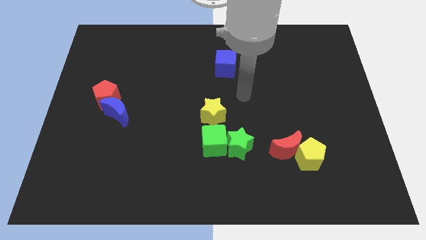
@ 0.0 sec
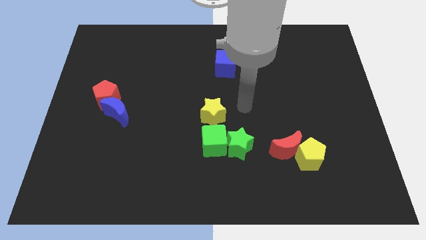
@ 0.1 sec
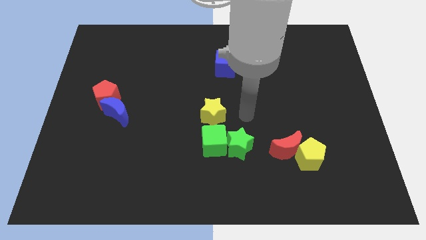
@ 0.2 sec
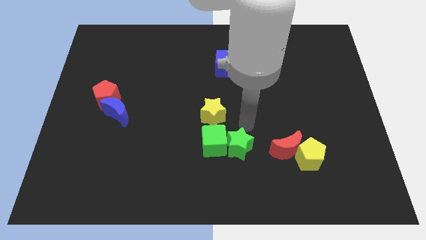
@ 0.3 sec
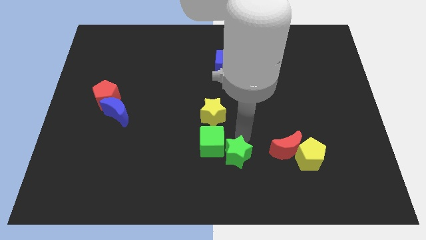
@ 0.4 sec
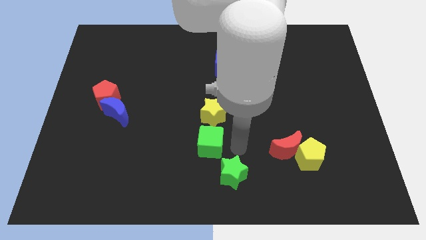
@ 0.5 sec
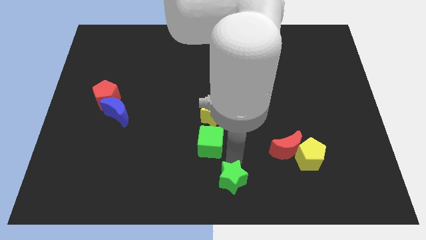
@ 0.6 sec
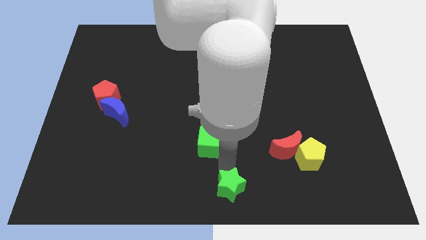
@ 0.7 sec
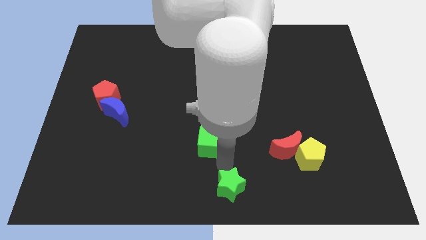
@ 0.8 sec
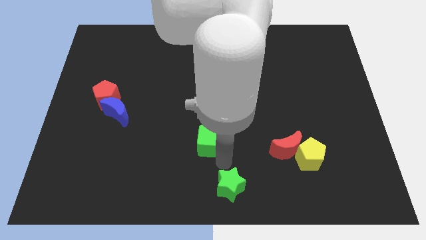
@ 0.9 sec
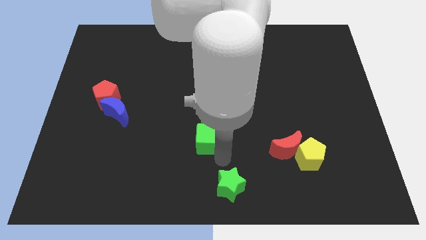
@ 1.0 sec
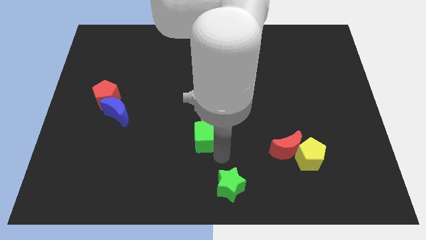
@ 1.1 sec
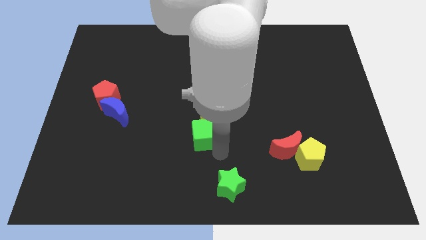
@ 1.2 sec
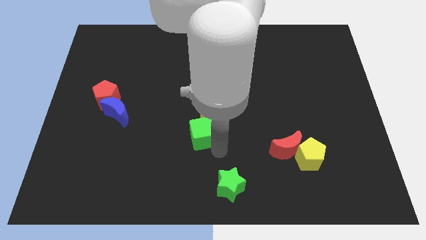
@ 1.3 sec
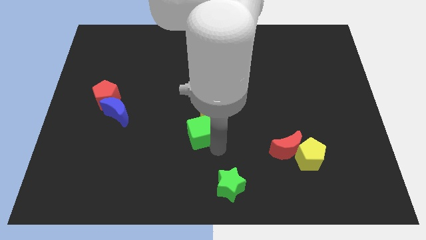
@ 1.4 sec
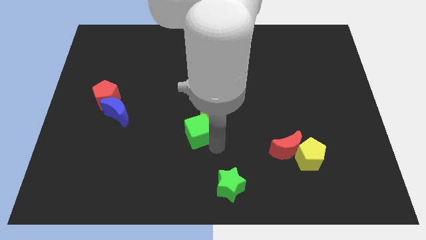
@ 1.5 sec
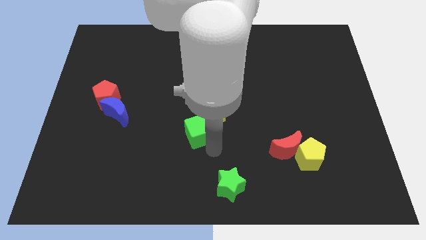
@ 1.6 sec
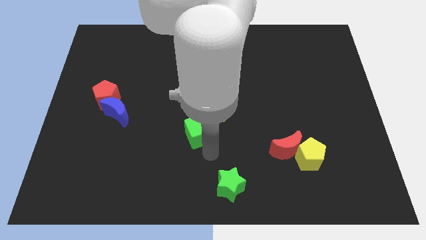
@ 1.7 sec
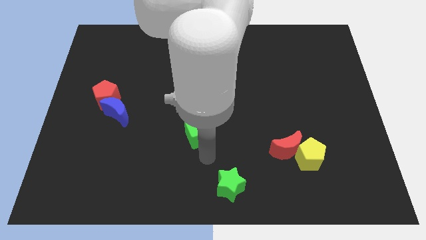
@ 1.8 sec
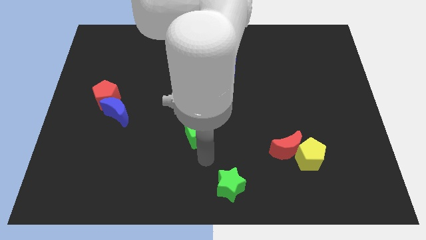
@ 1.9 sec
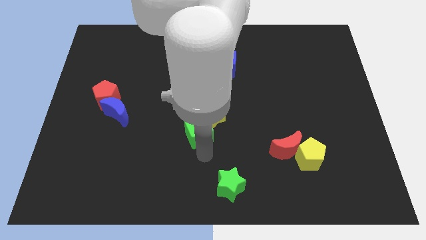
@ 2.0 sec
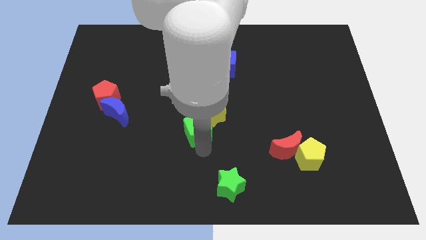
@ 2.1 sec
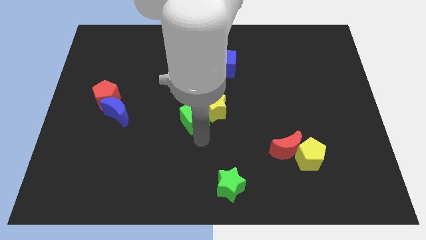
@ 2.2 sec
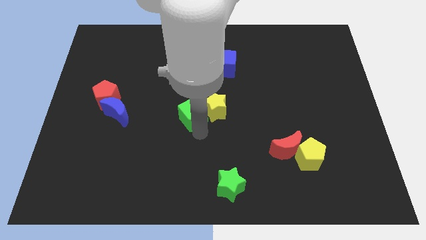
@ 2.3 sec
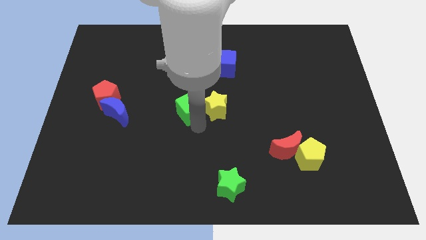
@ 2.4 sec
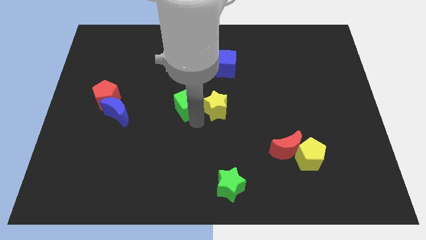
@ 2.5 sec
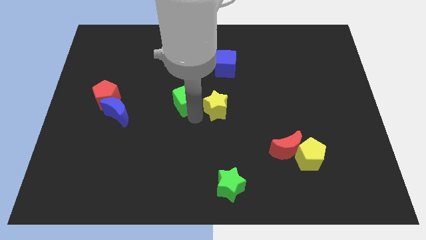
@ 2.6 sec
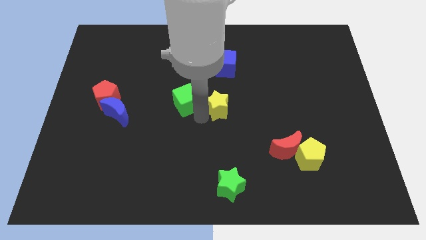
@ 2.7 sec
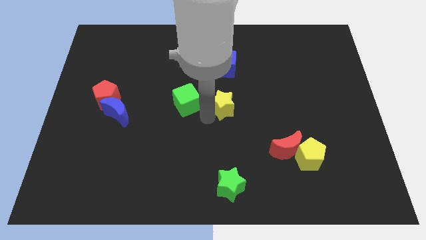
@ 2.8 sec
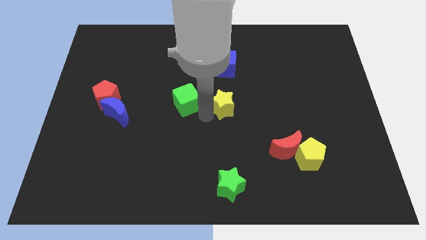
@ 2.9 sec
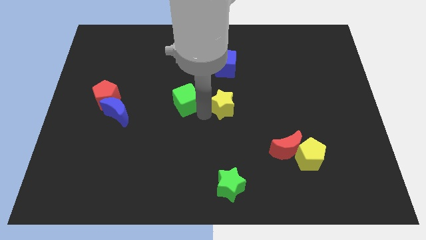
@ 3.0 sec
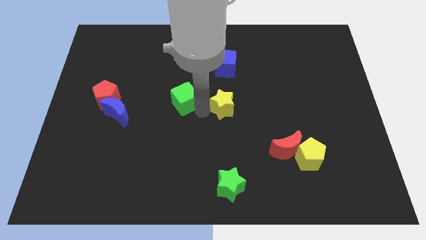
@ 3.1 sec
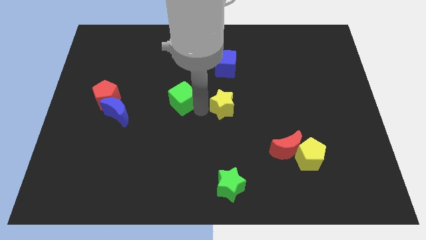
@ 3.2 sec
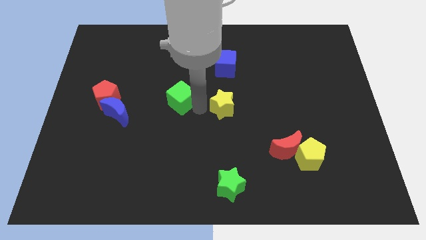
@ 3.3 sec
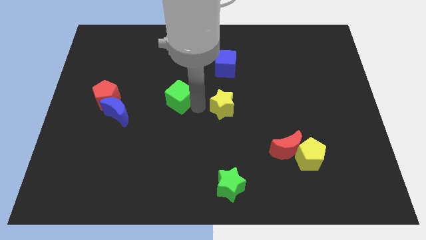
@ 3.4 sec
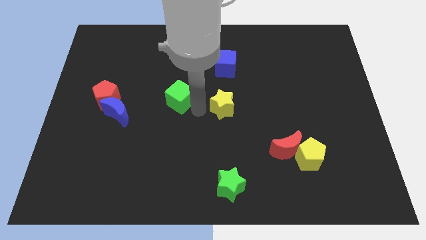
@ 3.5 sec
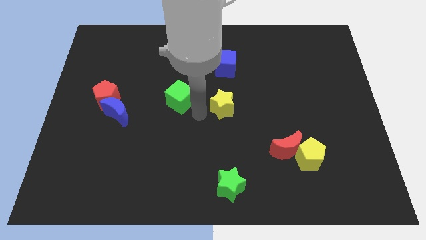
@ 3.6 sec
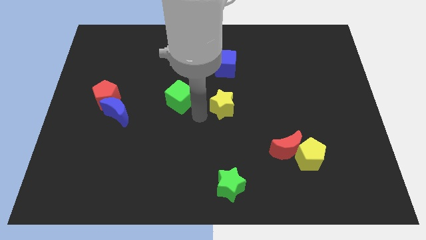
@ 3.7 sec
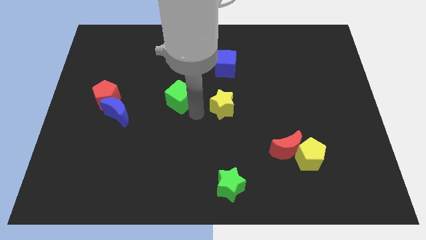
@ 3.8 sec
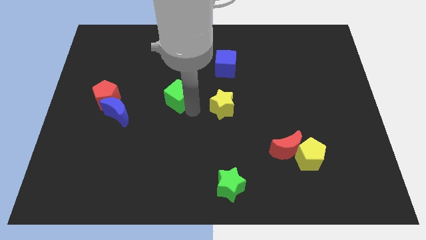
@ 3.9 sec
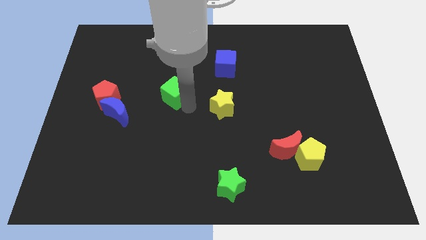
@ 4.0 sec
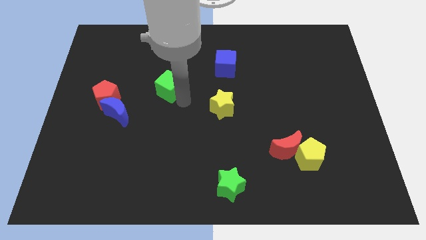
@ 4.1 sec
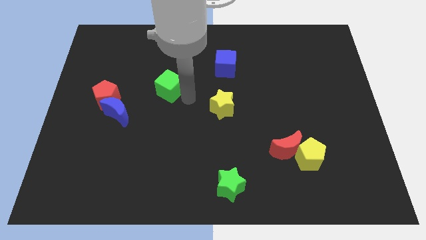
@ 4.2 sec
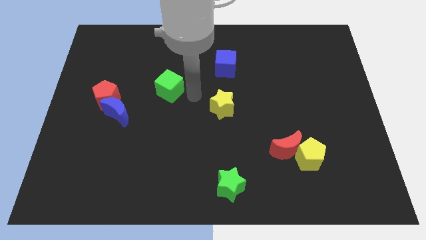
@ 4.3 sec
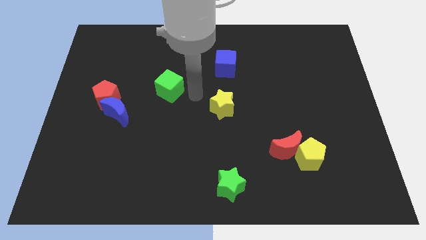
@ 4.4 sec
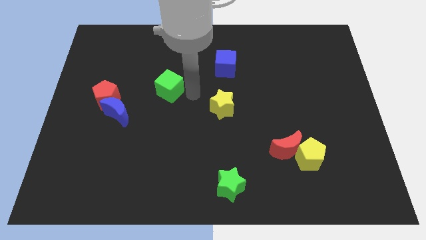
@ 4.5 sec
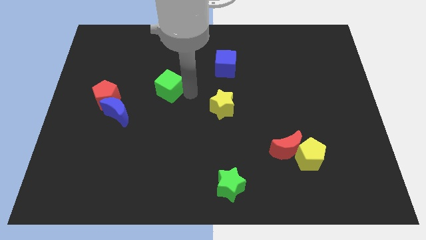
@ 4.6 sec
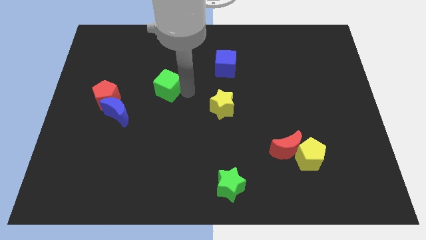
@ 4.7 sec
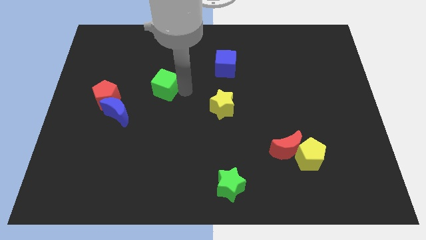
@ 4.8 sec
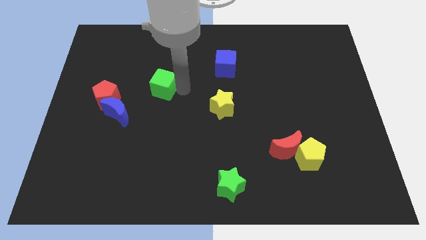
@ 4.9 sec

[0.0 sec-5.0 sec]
move the green cube up and left diagonally

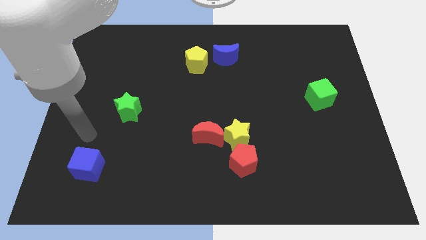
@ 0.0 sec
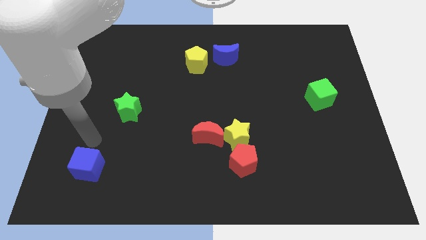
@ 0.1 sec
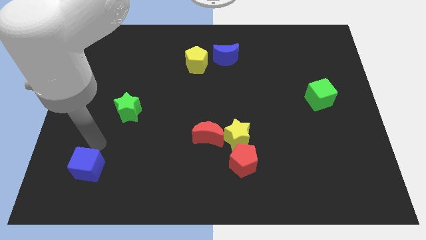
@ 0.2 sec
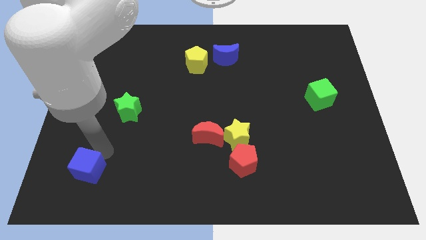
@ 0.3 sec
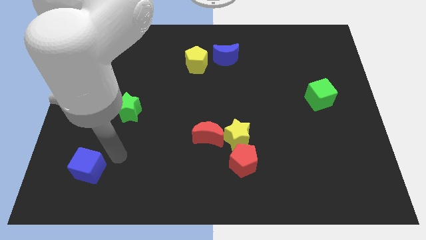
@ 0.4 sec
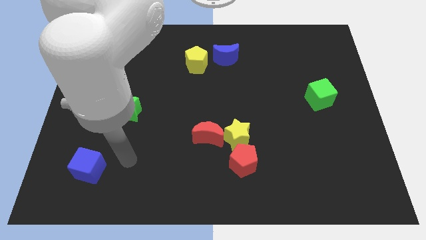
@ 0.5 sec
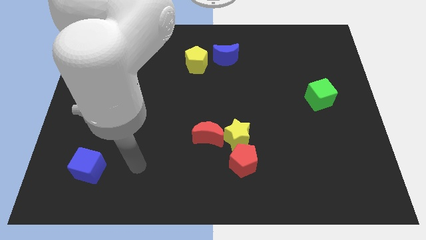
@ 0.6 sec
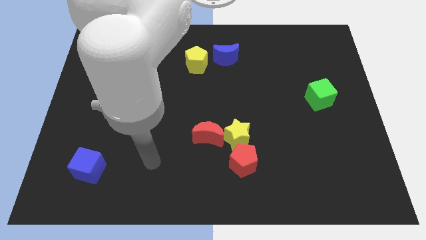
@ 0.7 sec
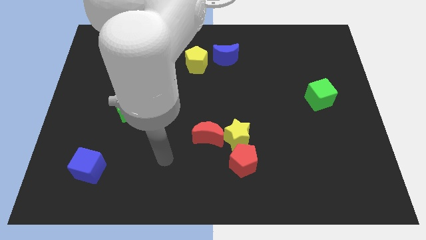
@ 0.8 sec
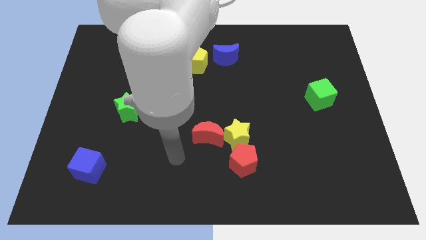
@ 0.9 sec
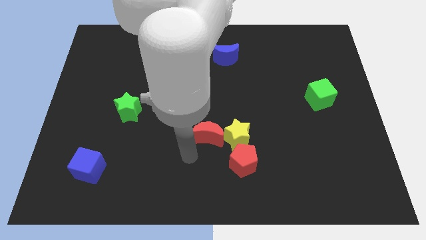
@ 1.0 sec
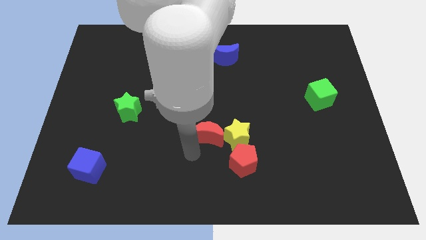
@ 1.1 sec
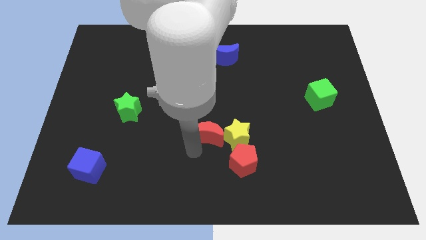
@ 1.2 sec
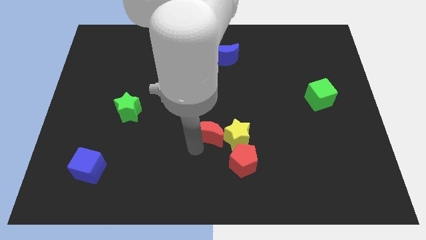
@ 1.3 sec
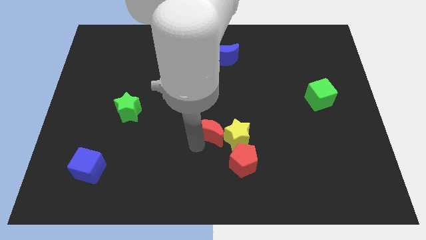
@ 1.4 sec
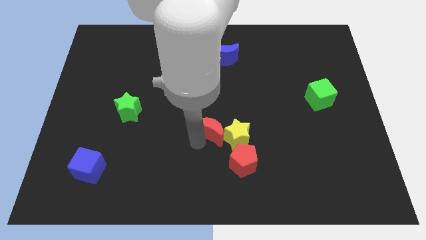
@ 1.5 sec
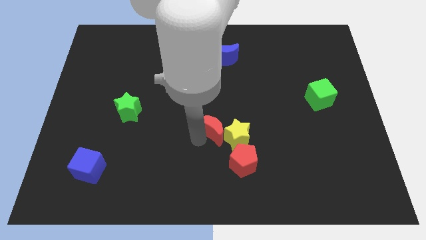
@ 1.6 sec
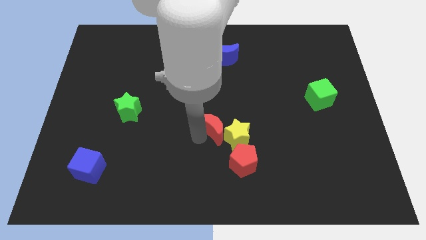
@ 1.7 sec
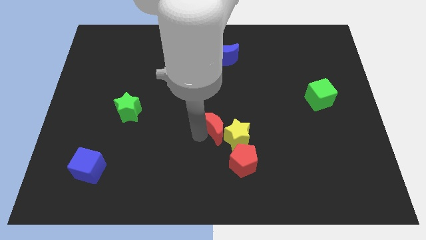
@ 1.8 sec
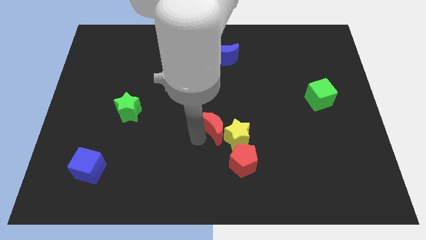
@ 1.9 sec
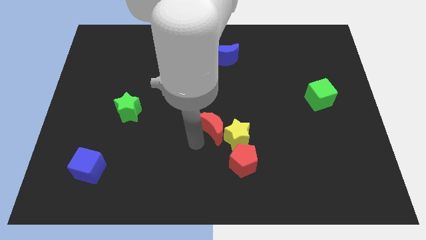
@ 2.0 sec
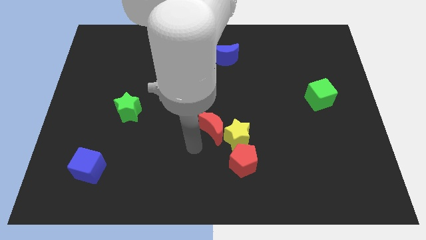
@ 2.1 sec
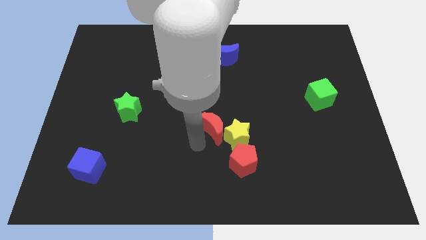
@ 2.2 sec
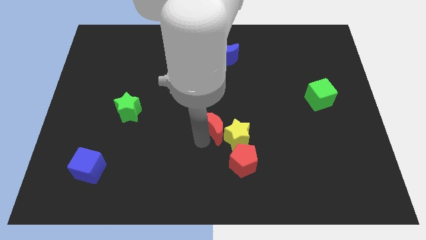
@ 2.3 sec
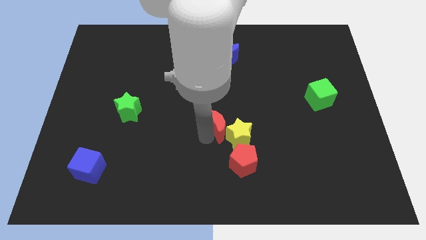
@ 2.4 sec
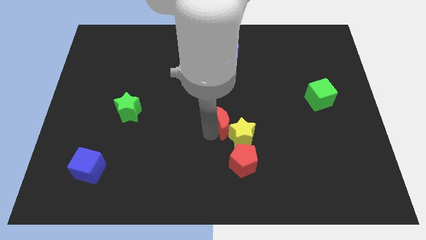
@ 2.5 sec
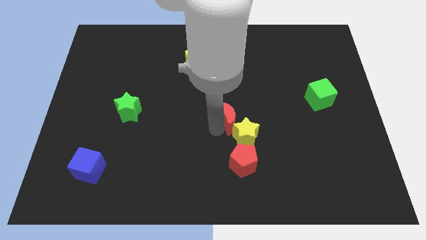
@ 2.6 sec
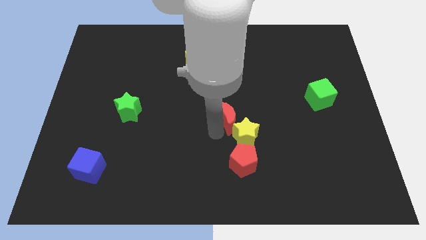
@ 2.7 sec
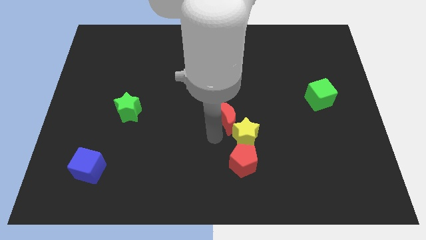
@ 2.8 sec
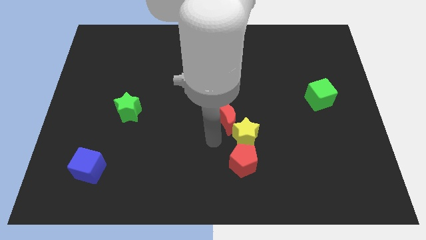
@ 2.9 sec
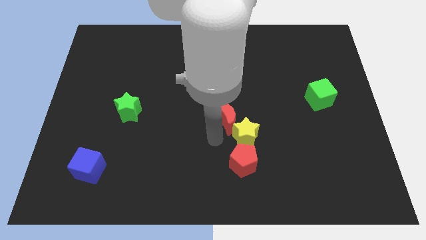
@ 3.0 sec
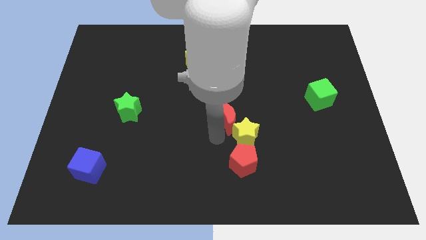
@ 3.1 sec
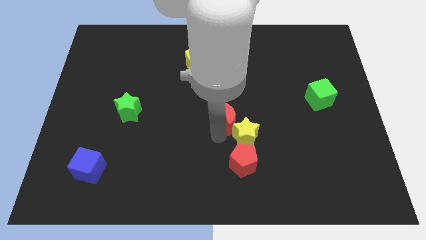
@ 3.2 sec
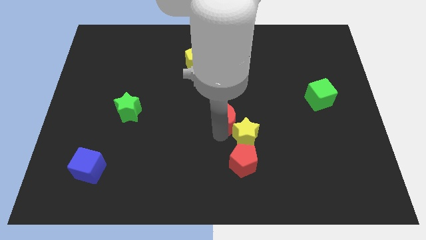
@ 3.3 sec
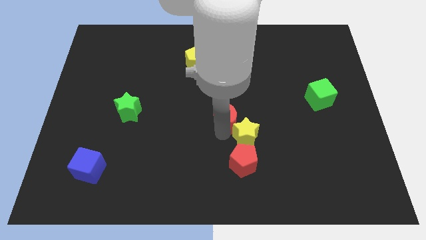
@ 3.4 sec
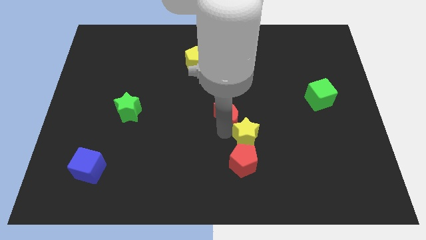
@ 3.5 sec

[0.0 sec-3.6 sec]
slightly move the red moon upwards and right diagonally
